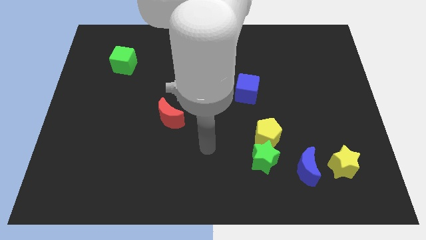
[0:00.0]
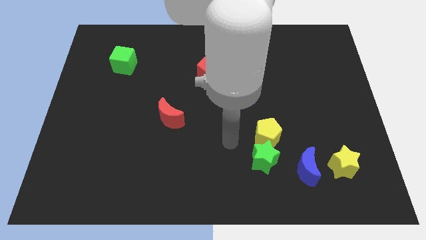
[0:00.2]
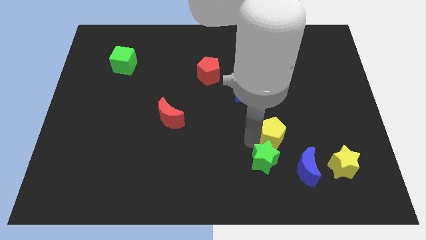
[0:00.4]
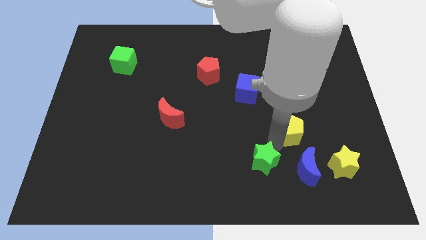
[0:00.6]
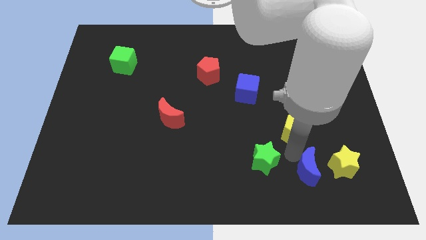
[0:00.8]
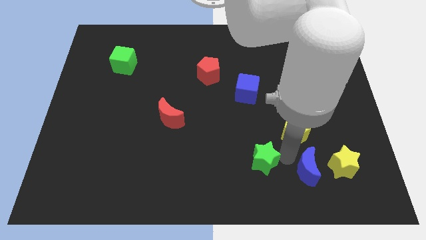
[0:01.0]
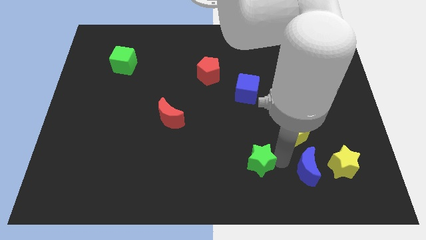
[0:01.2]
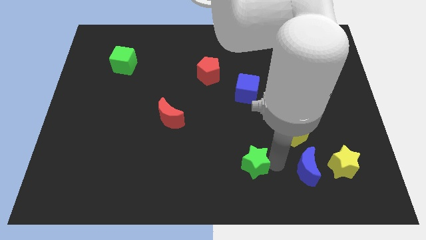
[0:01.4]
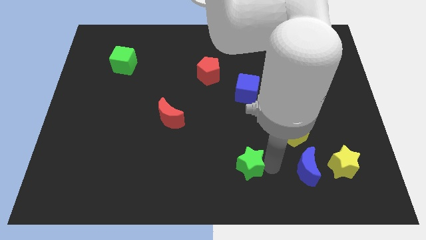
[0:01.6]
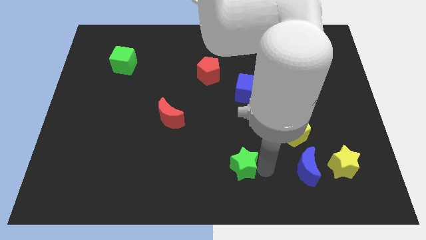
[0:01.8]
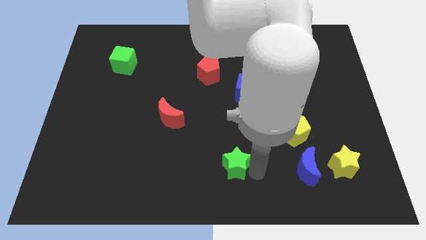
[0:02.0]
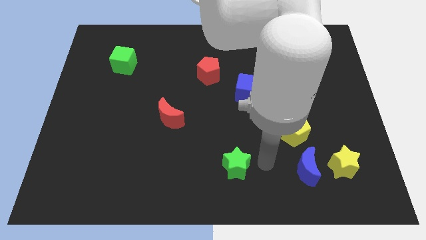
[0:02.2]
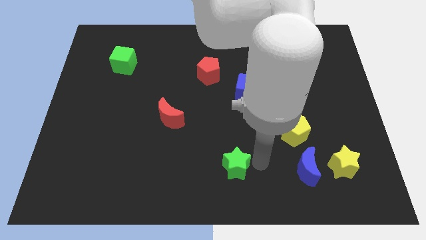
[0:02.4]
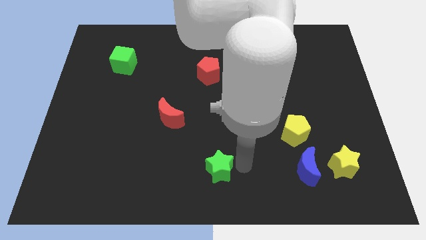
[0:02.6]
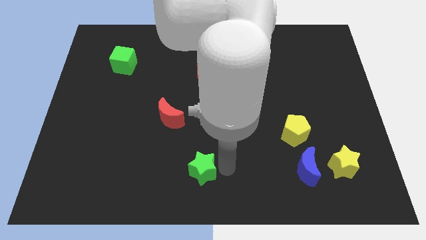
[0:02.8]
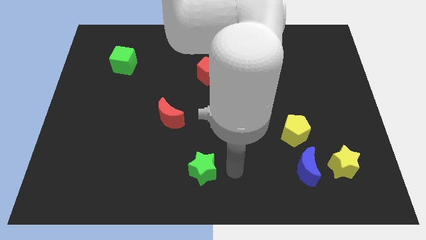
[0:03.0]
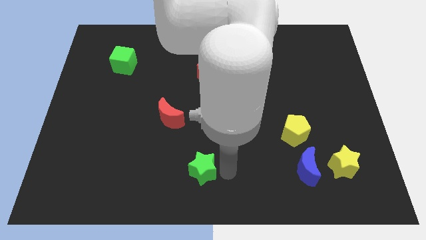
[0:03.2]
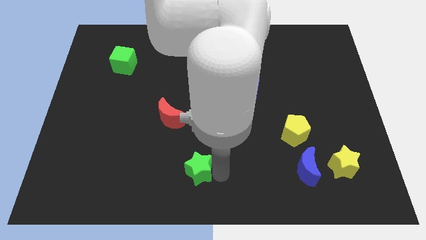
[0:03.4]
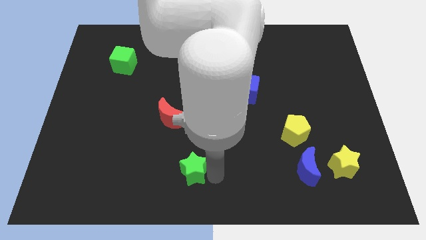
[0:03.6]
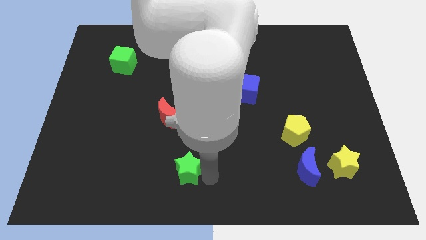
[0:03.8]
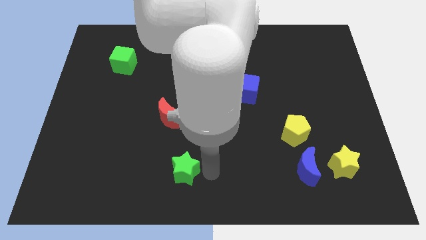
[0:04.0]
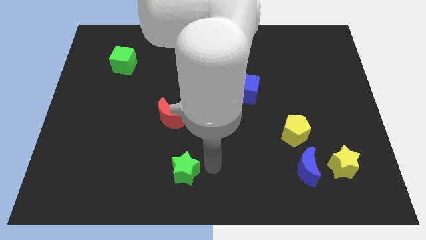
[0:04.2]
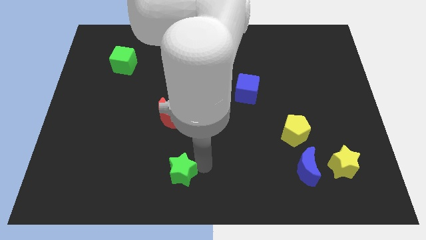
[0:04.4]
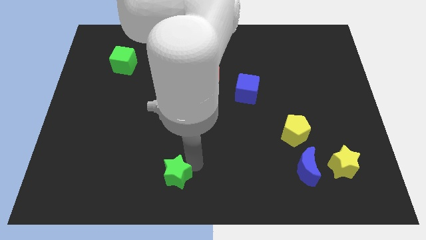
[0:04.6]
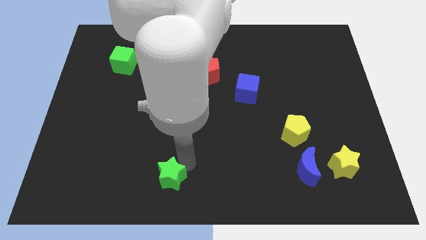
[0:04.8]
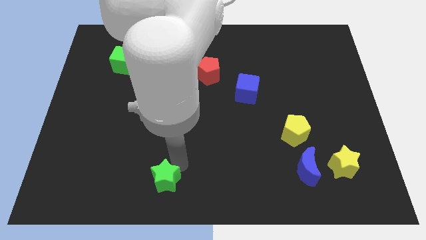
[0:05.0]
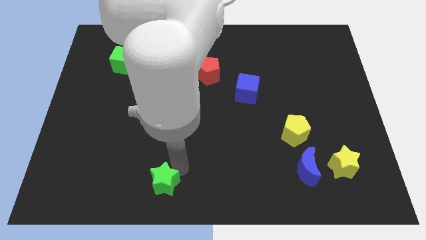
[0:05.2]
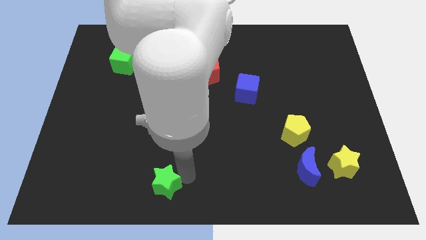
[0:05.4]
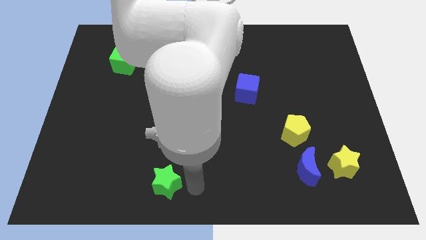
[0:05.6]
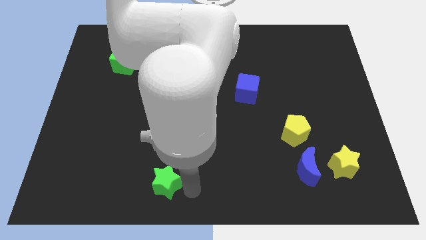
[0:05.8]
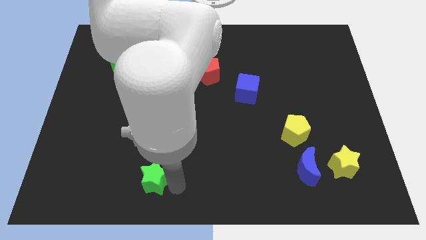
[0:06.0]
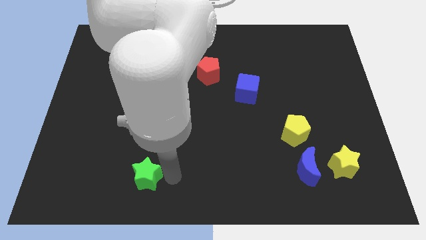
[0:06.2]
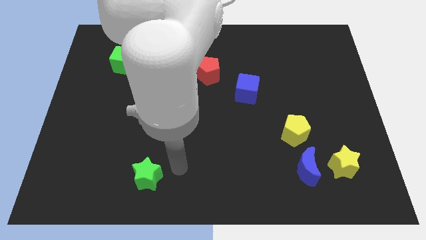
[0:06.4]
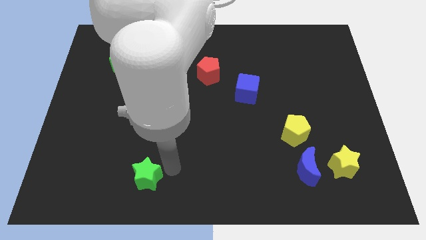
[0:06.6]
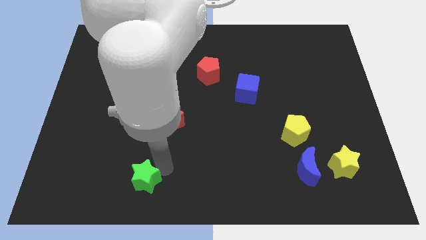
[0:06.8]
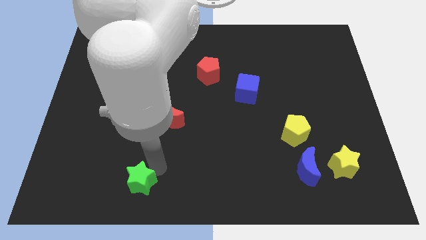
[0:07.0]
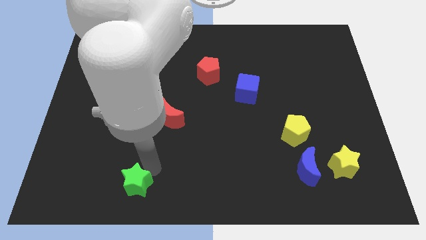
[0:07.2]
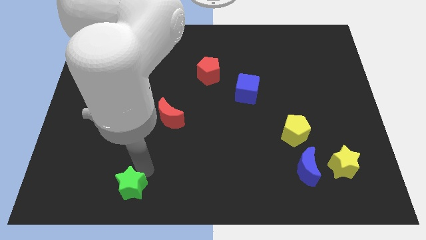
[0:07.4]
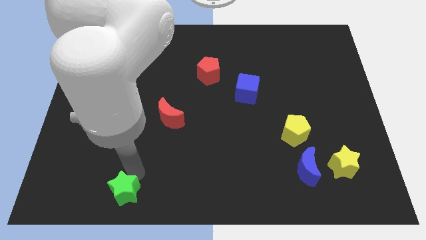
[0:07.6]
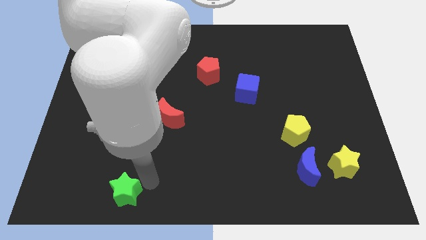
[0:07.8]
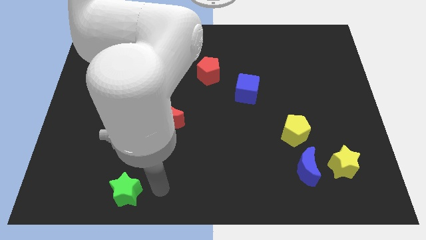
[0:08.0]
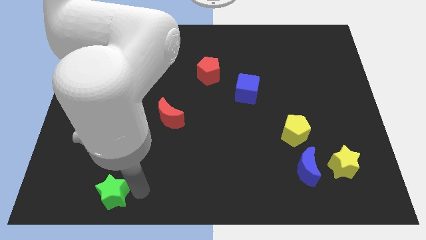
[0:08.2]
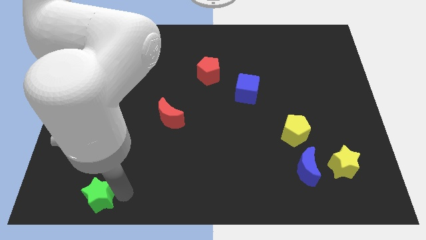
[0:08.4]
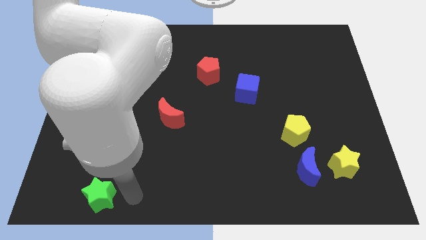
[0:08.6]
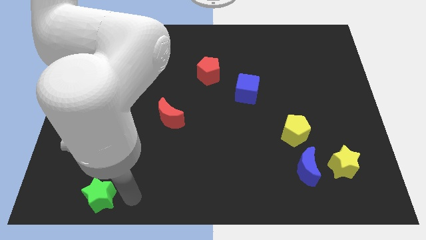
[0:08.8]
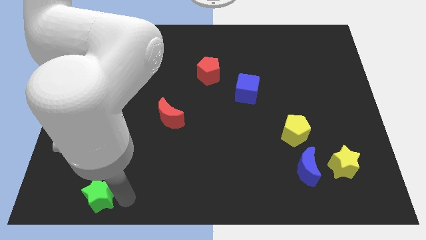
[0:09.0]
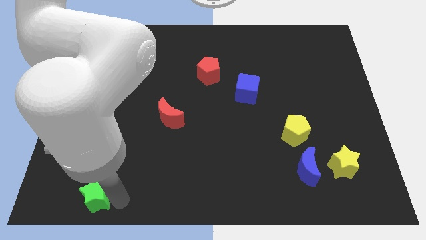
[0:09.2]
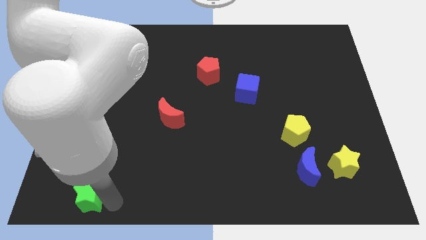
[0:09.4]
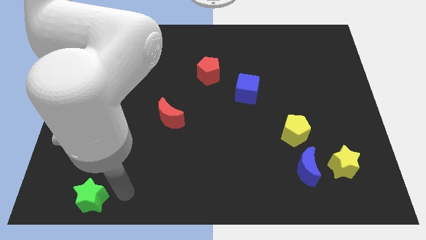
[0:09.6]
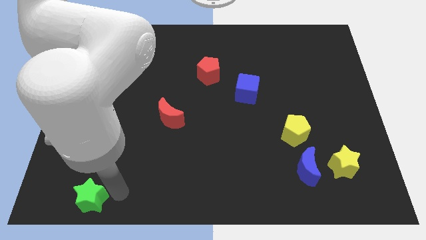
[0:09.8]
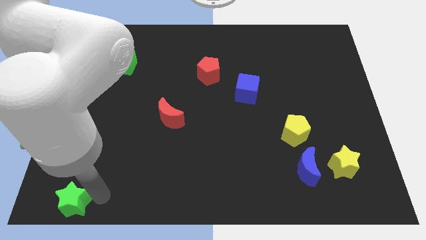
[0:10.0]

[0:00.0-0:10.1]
slide the green star to the bottom left

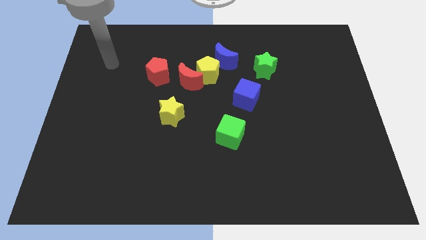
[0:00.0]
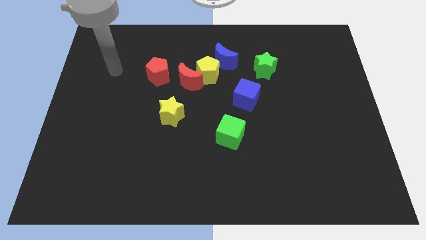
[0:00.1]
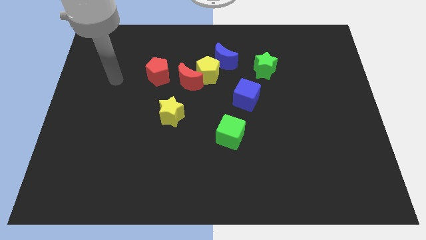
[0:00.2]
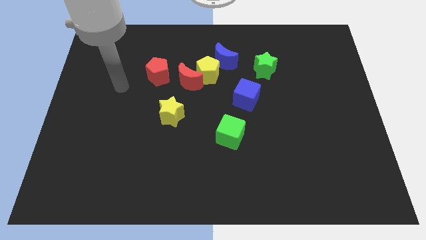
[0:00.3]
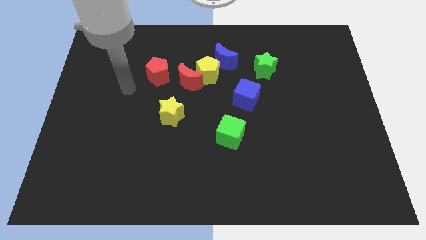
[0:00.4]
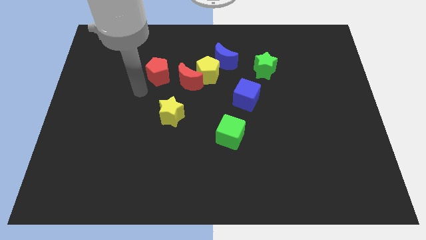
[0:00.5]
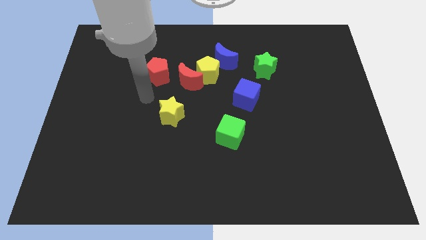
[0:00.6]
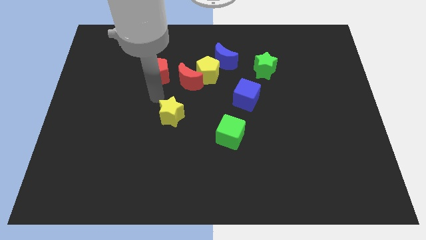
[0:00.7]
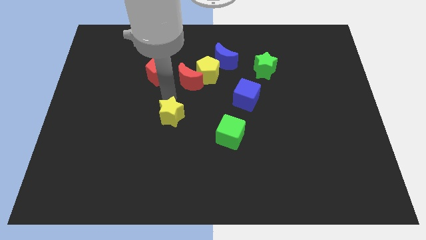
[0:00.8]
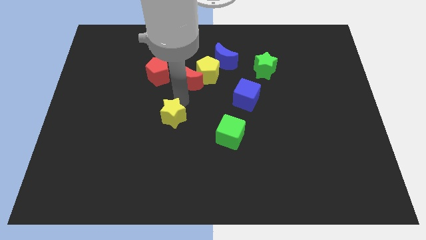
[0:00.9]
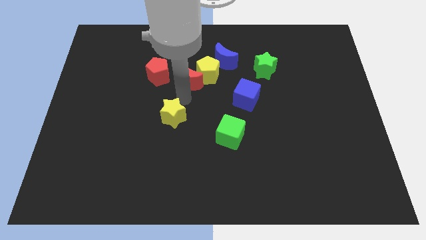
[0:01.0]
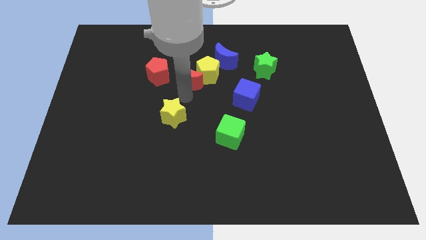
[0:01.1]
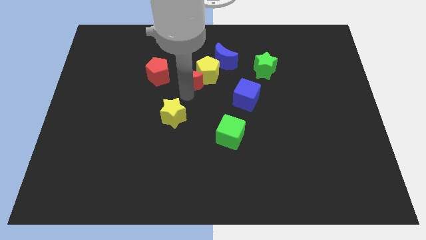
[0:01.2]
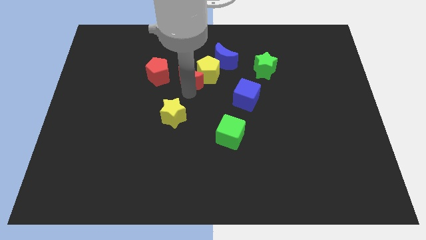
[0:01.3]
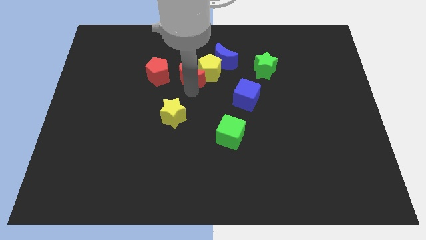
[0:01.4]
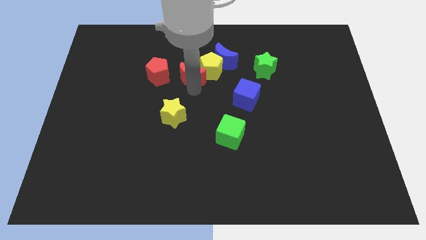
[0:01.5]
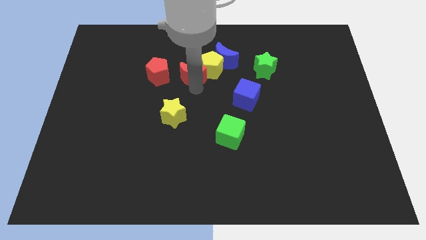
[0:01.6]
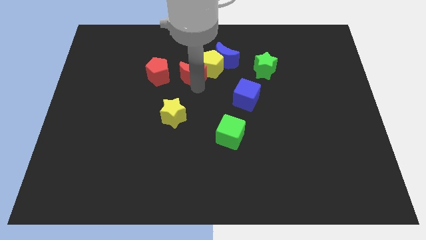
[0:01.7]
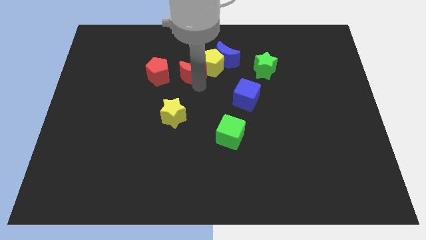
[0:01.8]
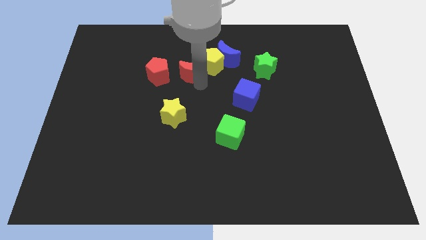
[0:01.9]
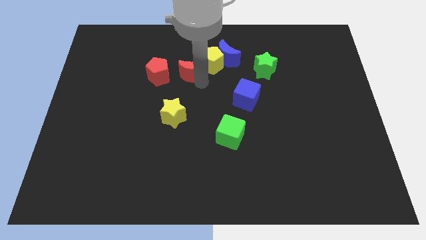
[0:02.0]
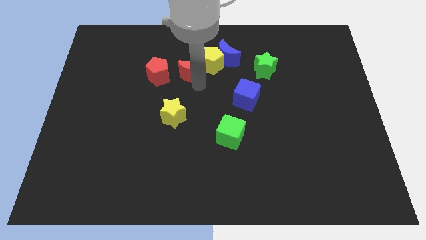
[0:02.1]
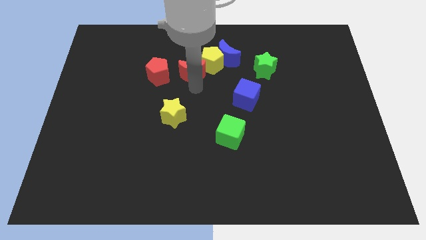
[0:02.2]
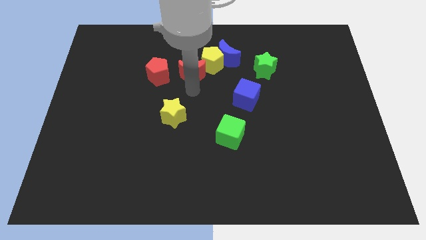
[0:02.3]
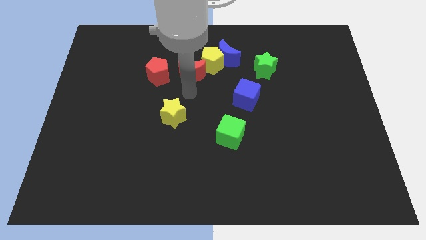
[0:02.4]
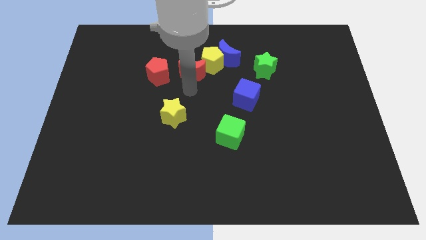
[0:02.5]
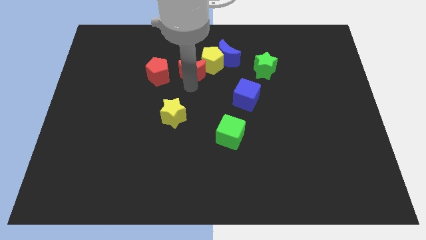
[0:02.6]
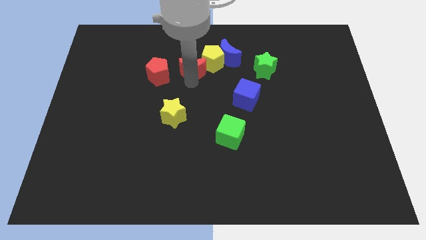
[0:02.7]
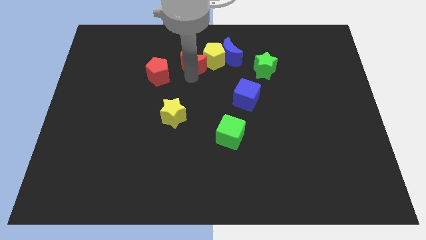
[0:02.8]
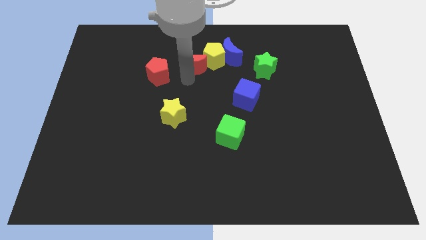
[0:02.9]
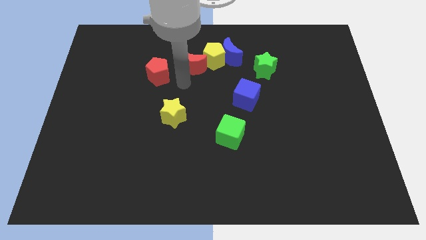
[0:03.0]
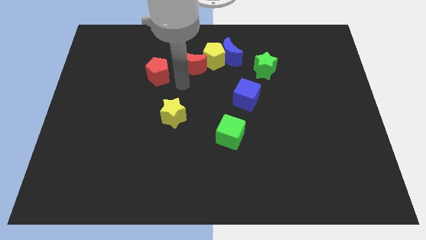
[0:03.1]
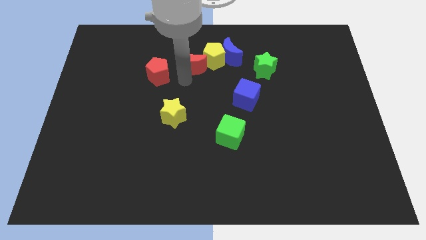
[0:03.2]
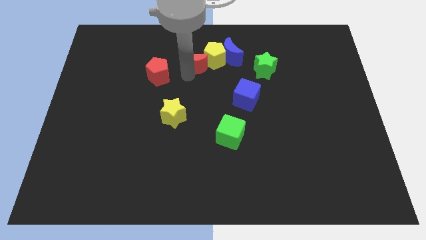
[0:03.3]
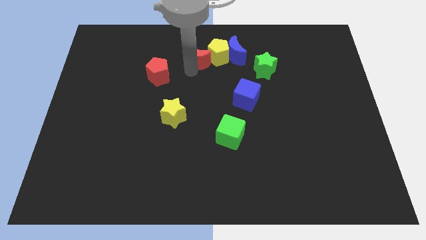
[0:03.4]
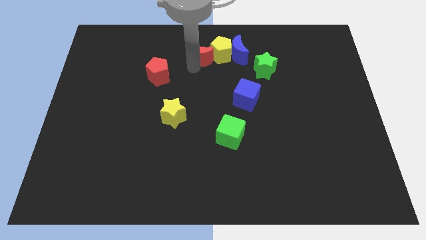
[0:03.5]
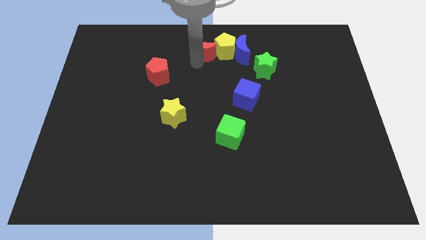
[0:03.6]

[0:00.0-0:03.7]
move the red moon to the top
